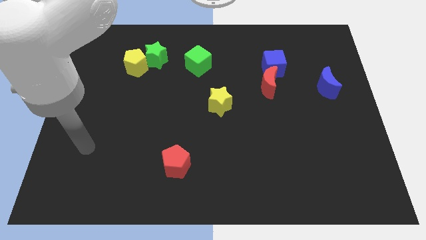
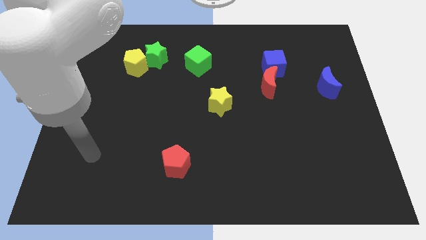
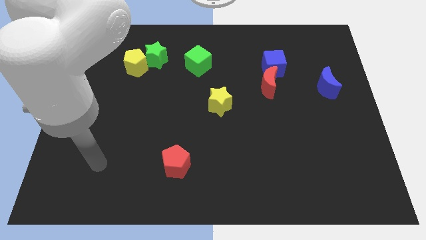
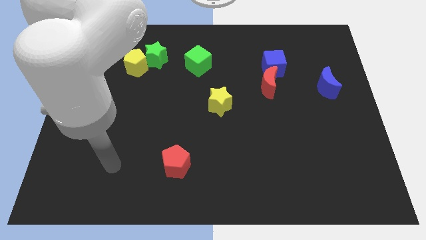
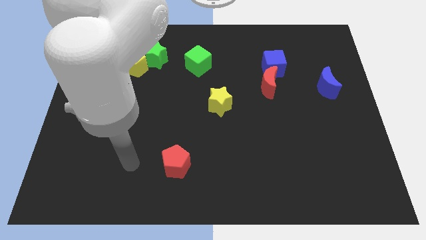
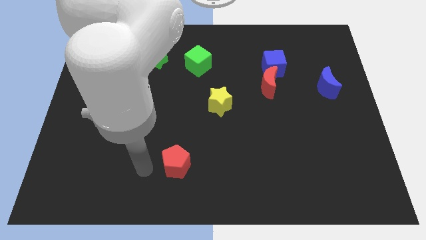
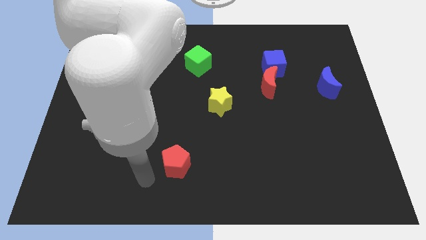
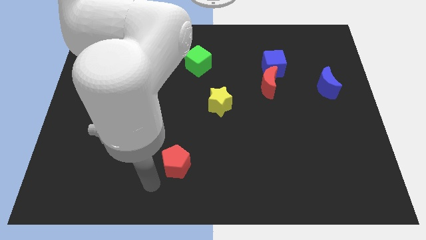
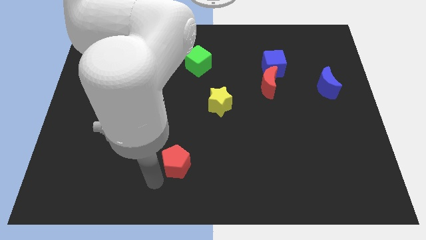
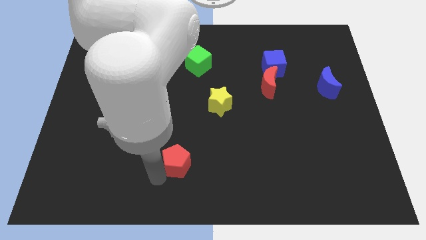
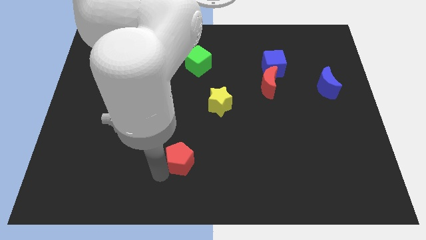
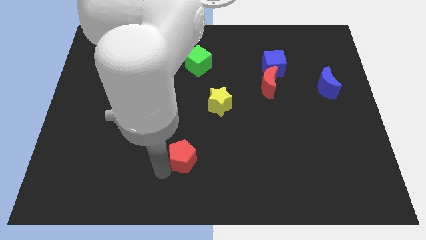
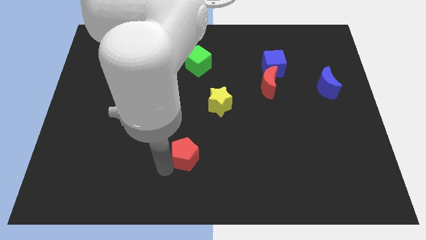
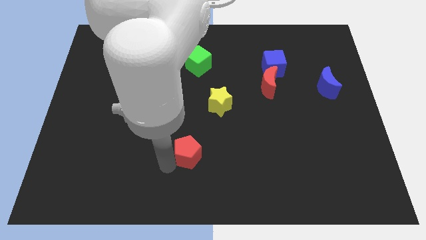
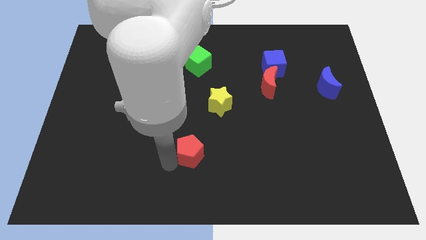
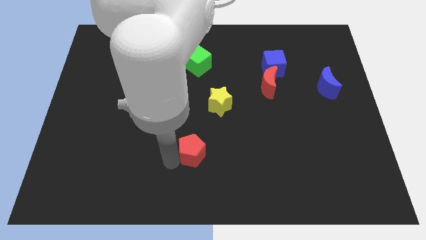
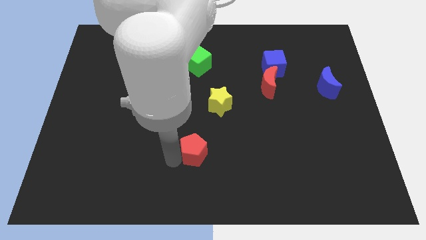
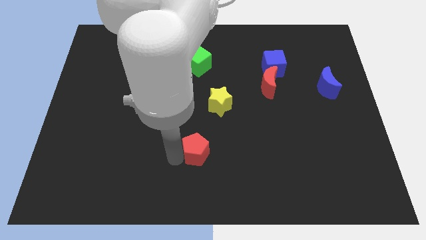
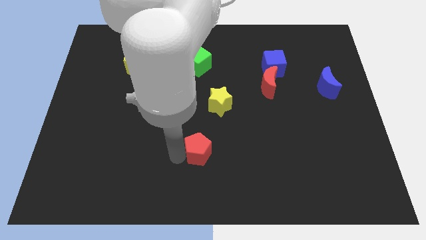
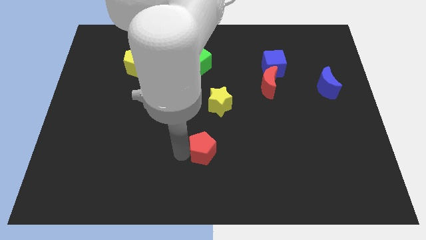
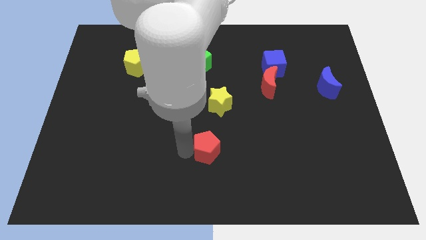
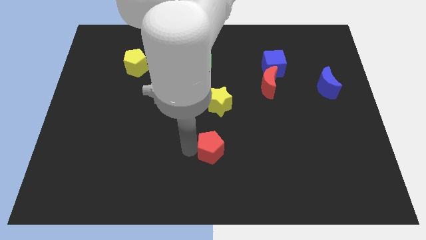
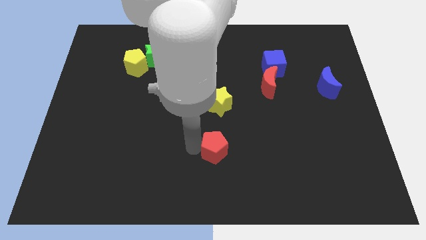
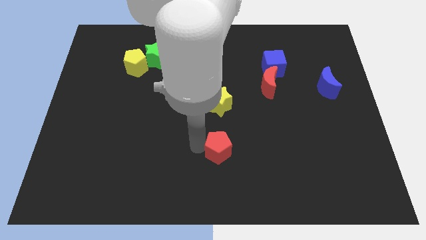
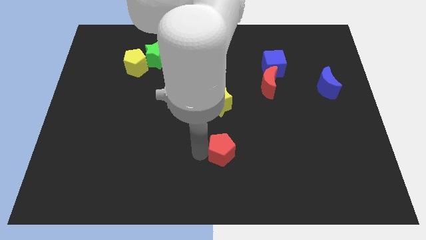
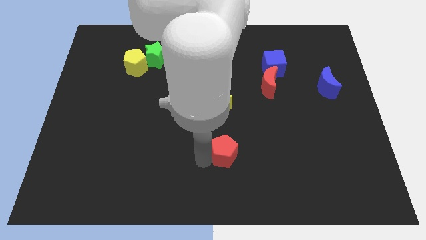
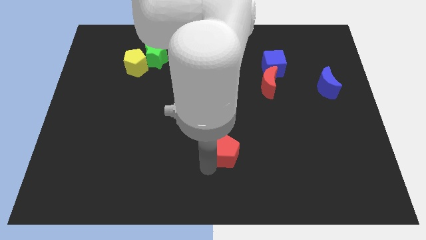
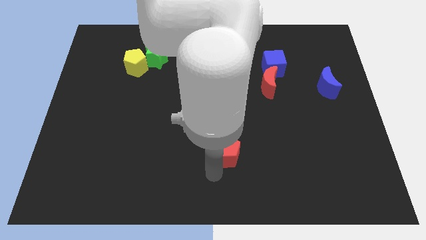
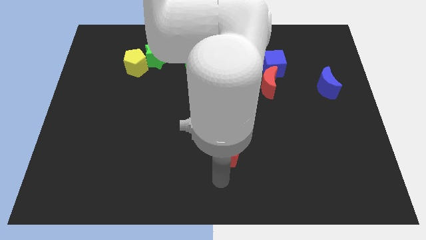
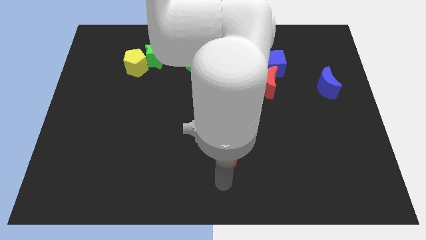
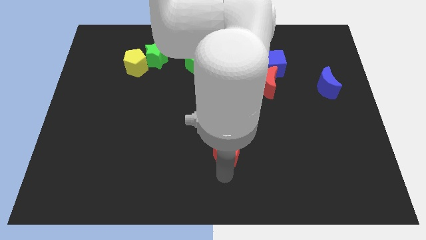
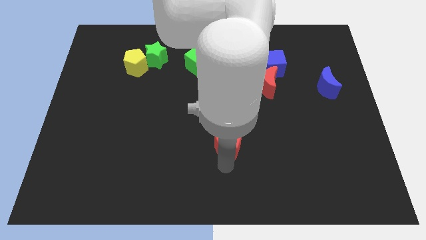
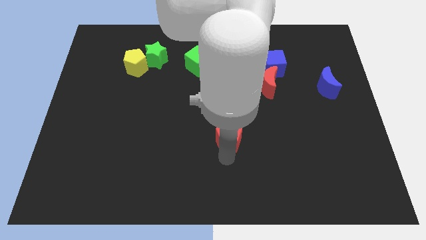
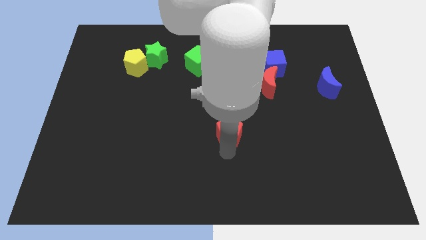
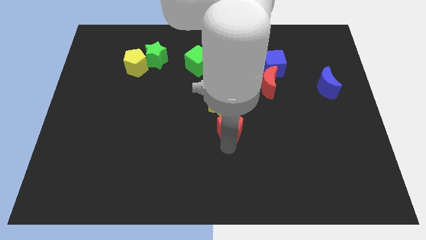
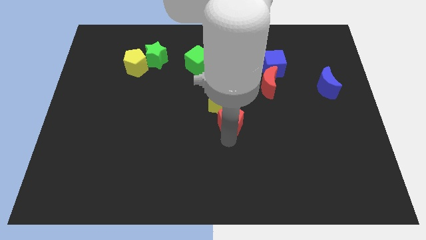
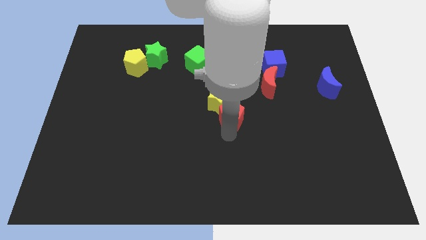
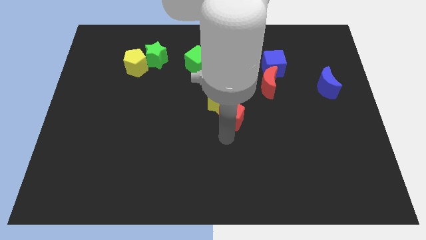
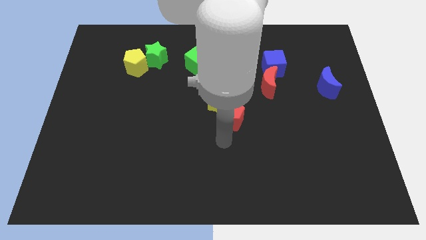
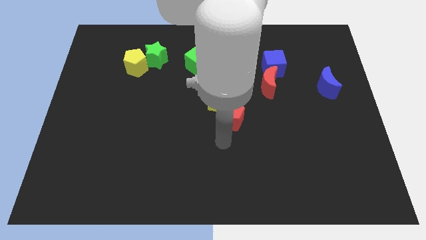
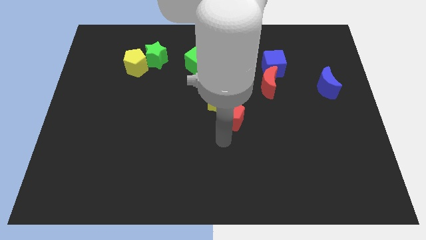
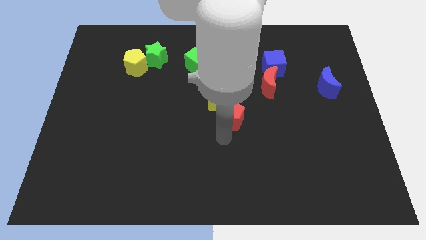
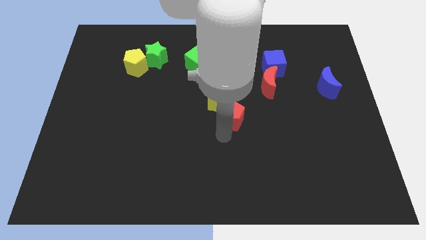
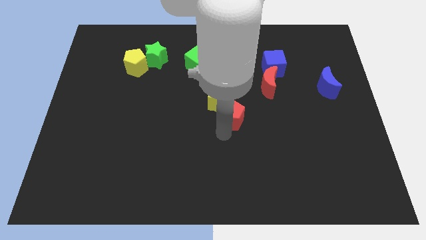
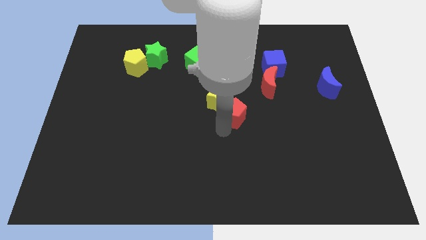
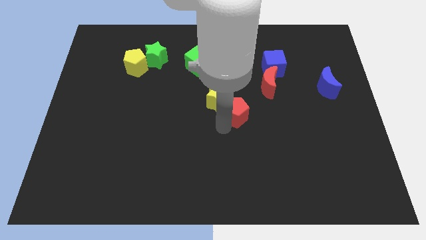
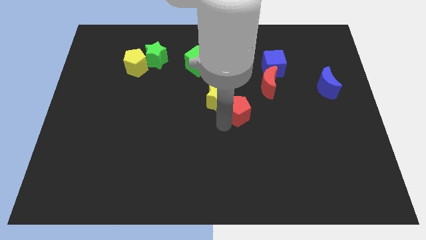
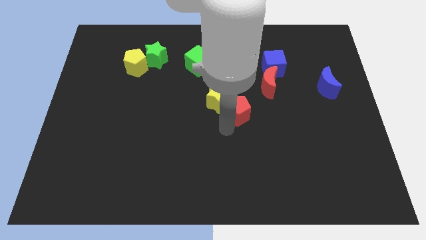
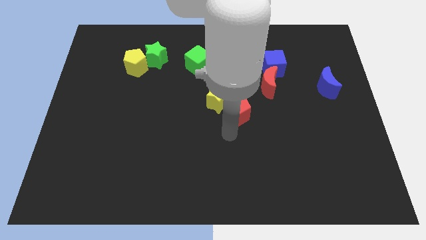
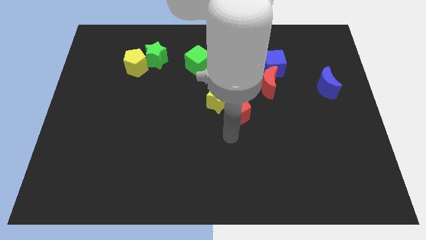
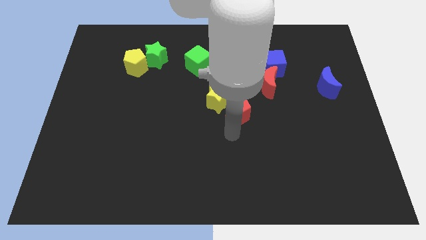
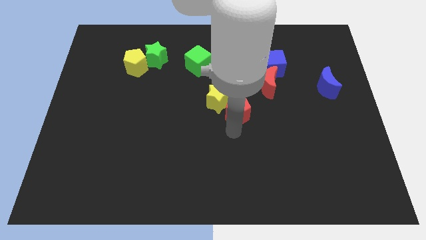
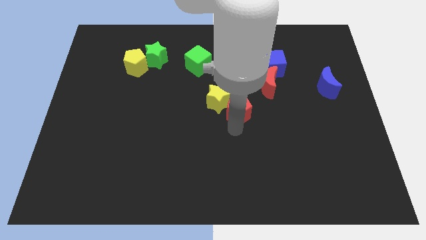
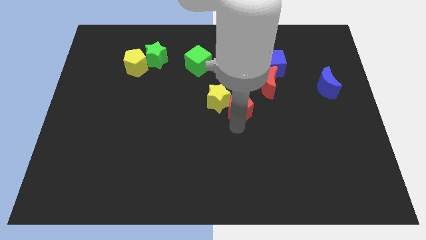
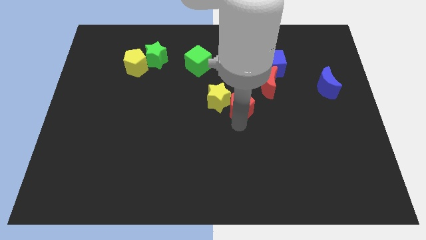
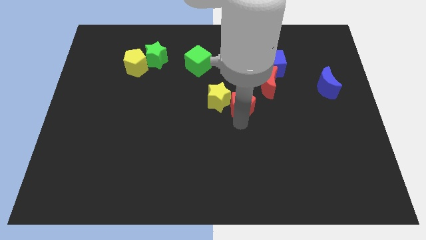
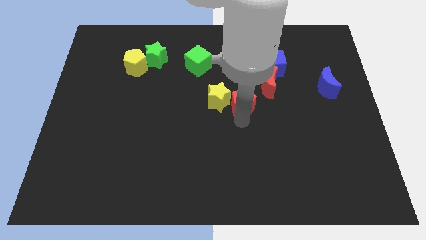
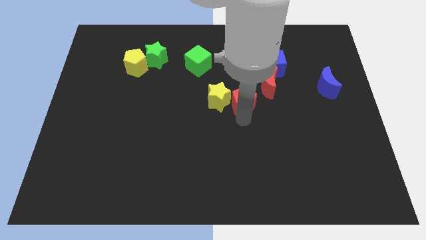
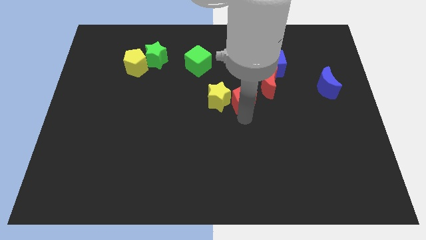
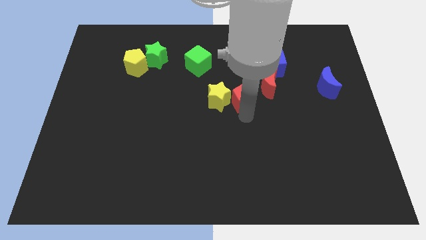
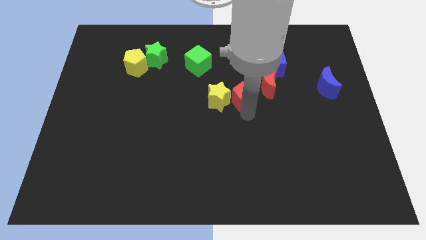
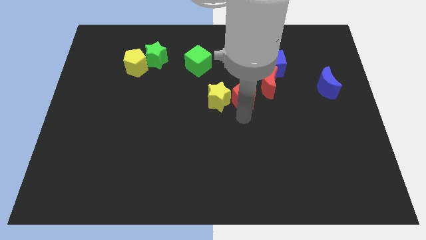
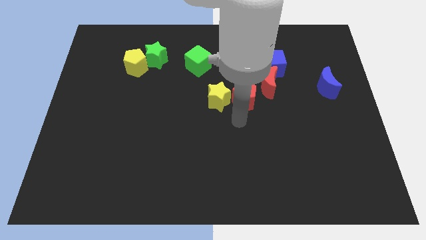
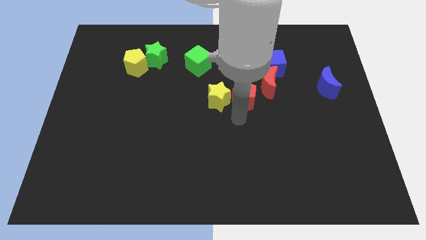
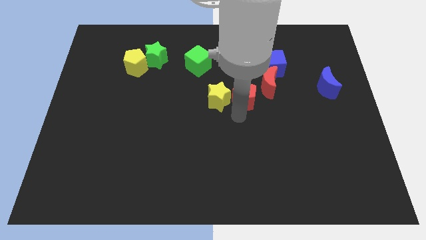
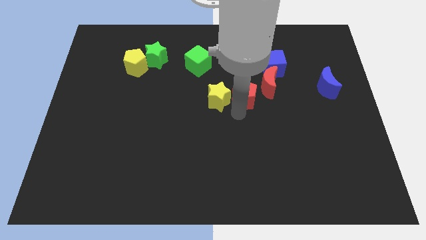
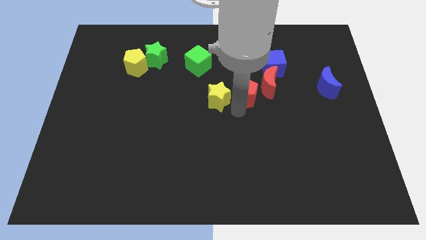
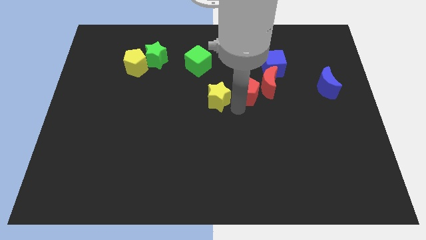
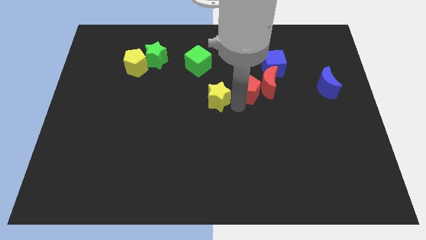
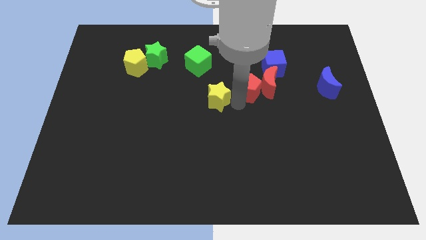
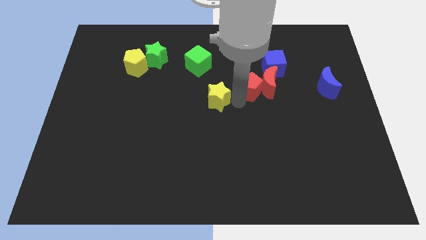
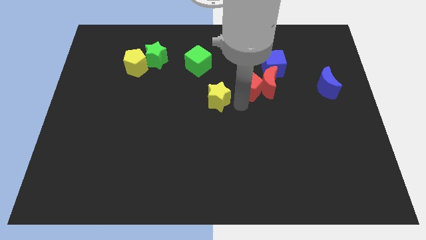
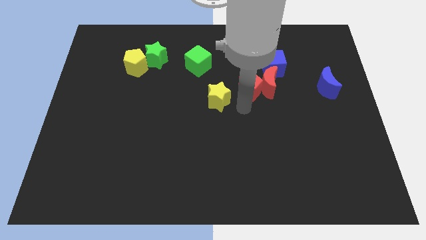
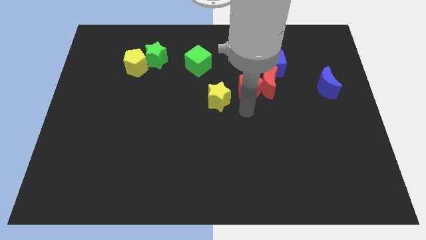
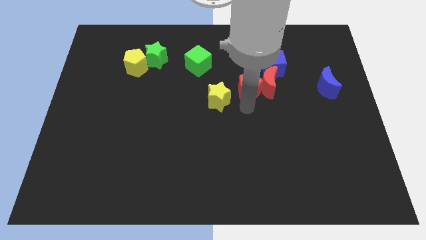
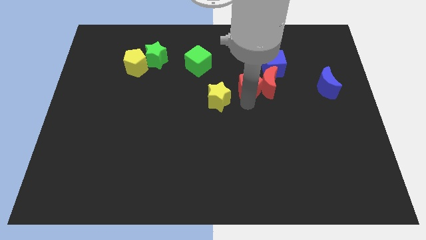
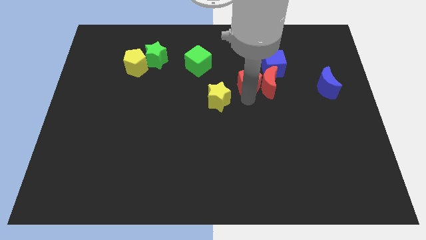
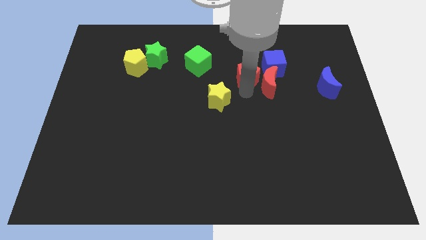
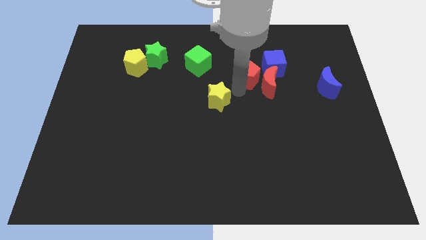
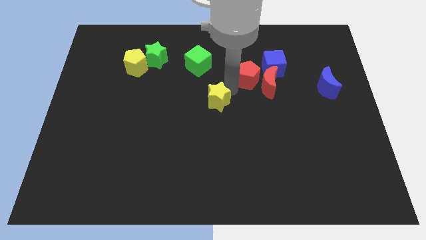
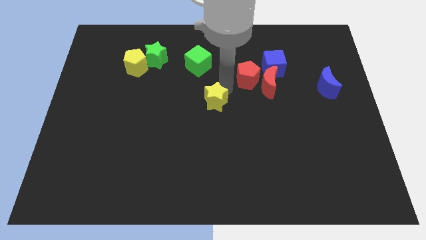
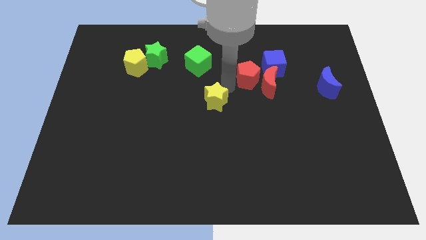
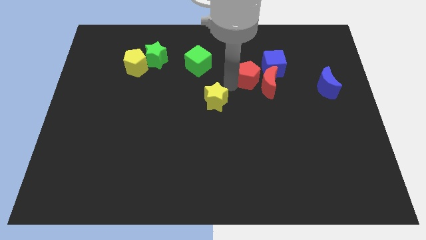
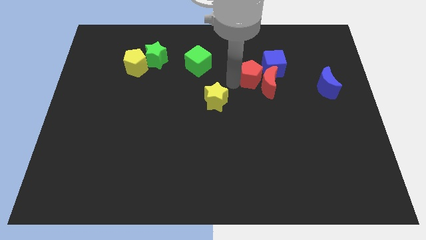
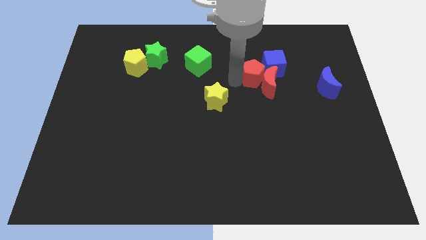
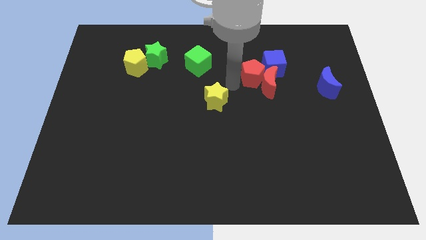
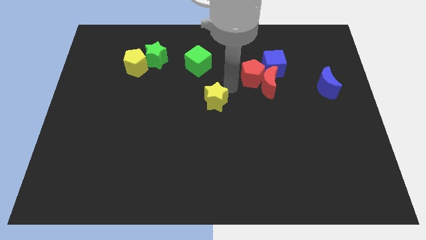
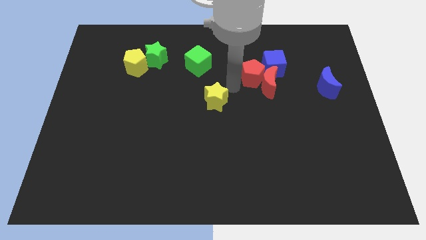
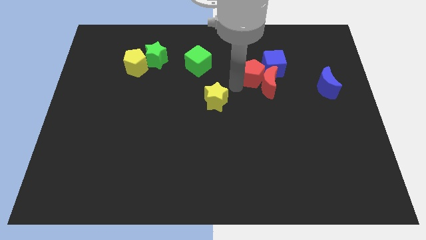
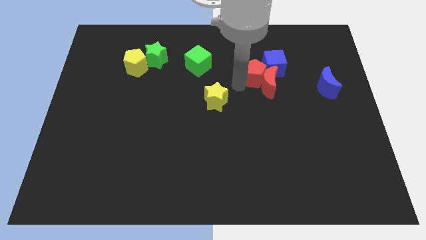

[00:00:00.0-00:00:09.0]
push the red pentagon to the blue cube
